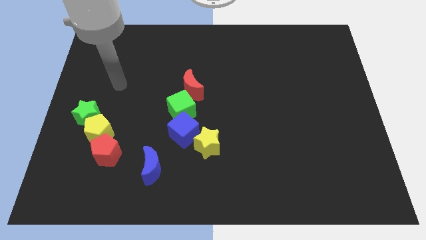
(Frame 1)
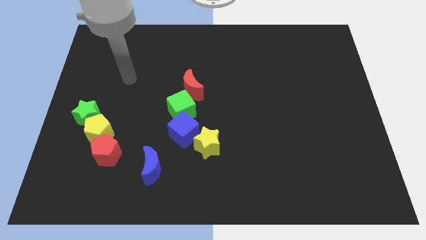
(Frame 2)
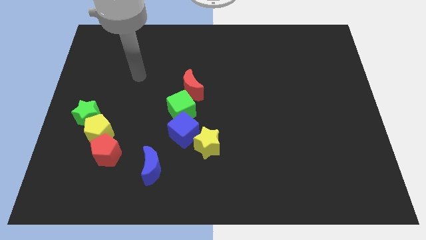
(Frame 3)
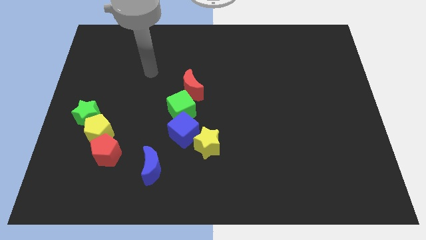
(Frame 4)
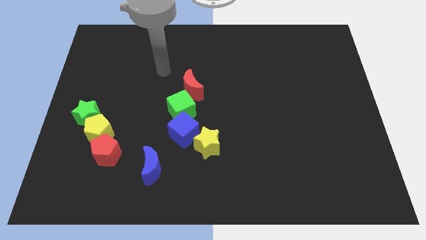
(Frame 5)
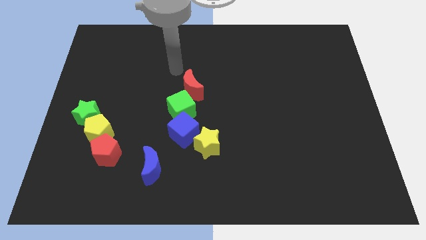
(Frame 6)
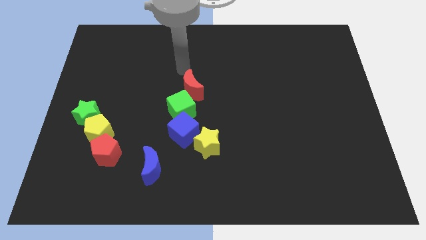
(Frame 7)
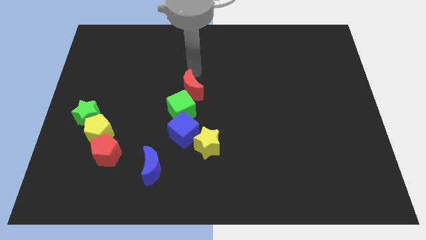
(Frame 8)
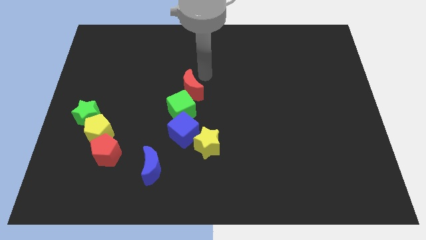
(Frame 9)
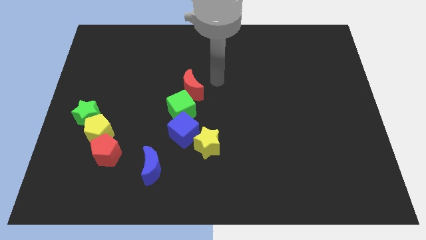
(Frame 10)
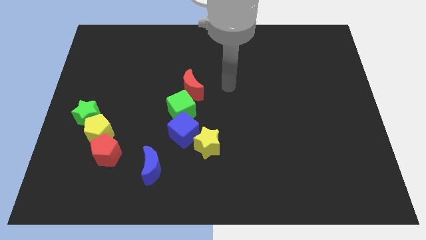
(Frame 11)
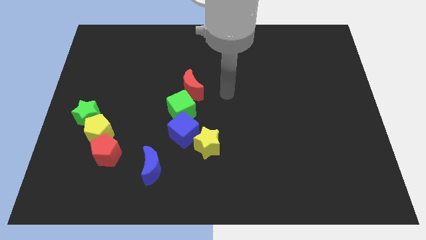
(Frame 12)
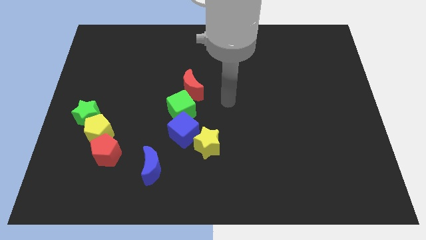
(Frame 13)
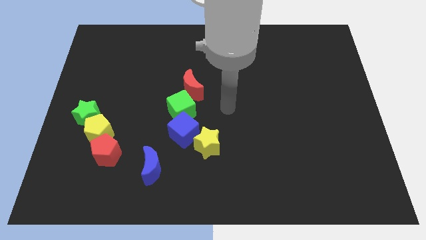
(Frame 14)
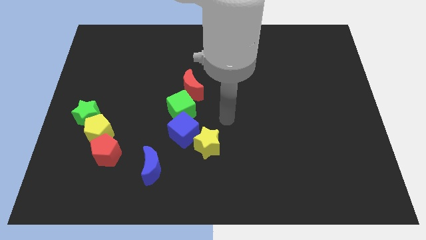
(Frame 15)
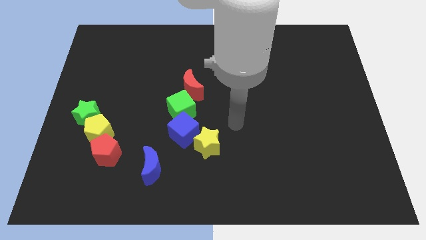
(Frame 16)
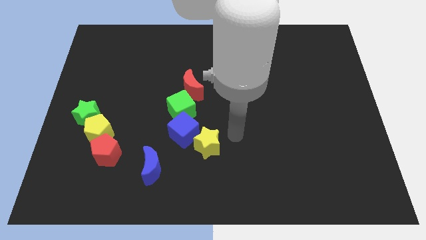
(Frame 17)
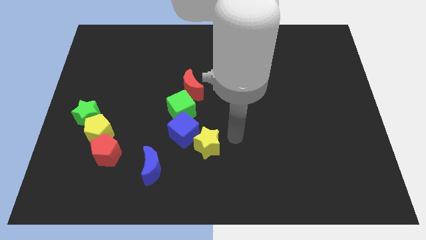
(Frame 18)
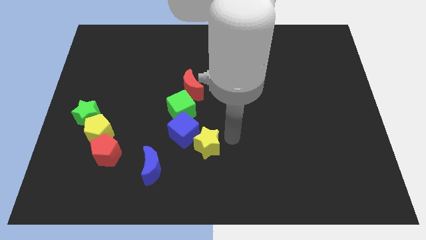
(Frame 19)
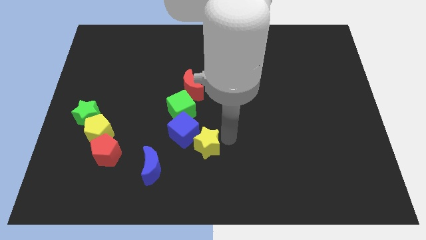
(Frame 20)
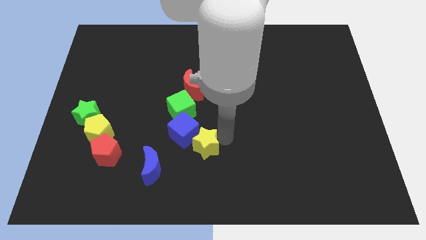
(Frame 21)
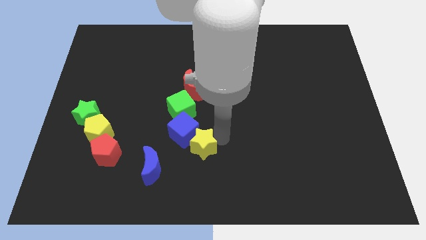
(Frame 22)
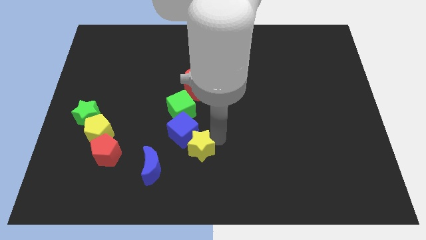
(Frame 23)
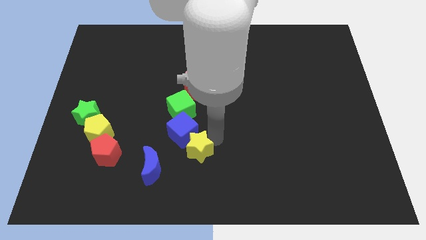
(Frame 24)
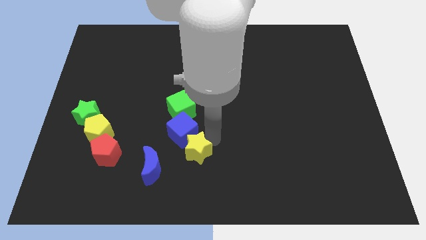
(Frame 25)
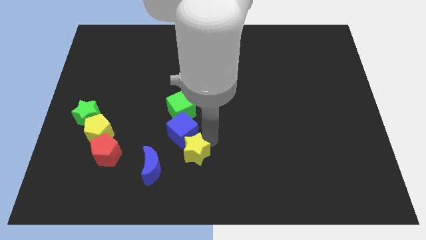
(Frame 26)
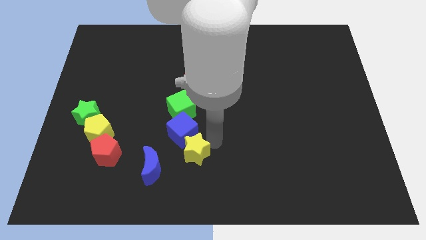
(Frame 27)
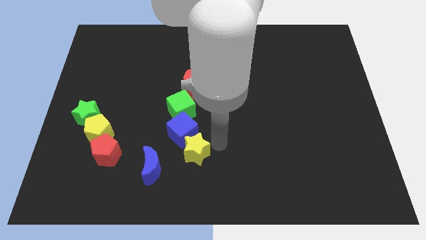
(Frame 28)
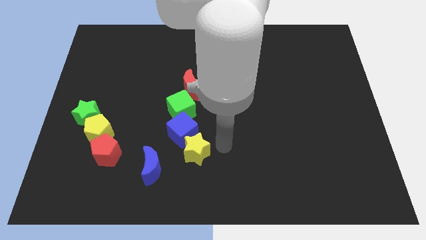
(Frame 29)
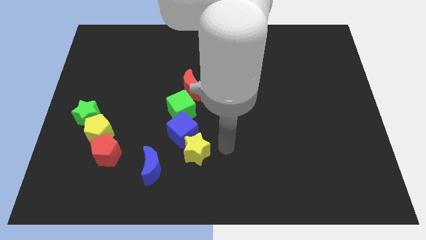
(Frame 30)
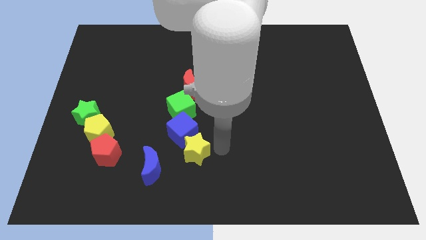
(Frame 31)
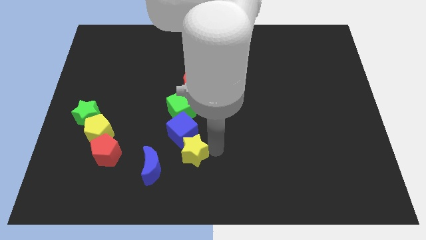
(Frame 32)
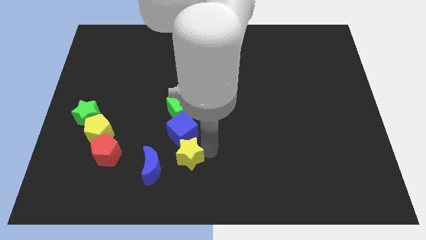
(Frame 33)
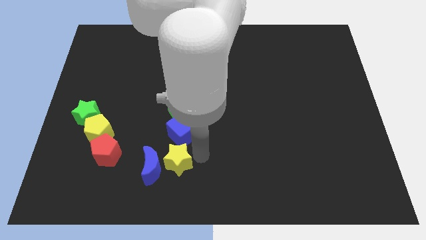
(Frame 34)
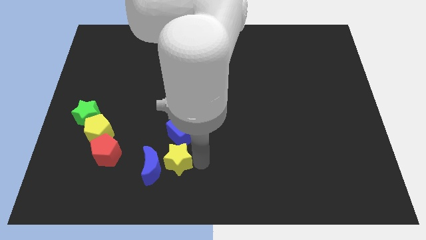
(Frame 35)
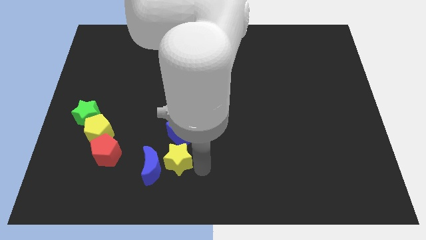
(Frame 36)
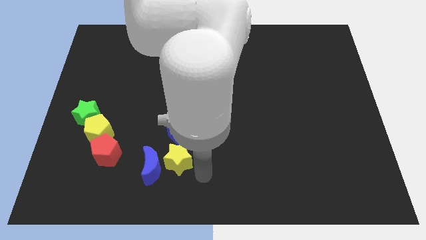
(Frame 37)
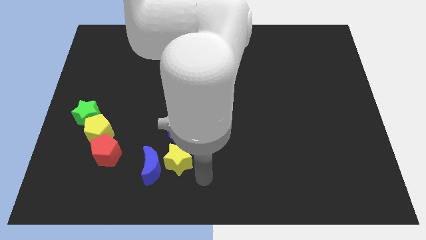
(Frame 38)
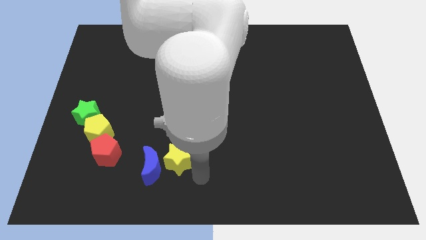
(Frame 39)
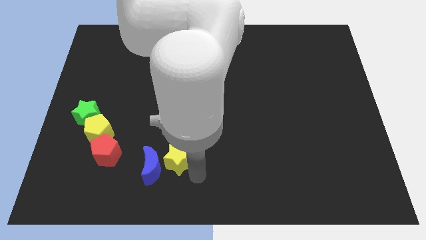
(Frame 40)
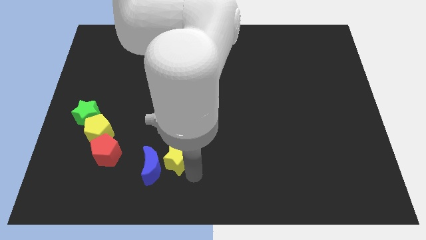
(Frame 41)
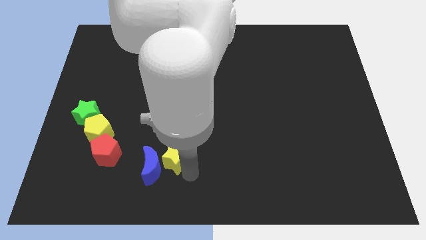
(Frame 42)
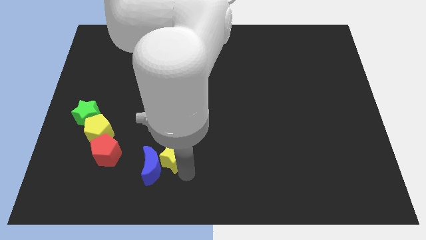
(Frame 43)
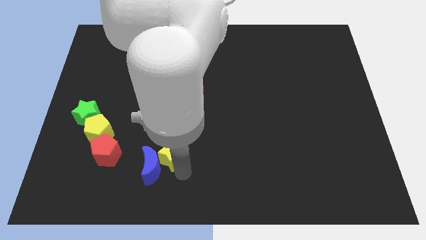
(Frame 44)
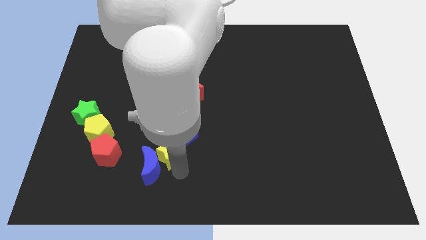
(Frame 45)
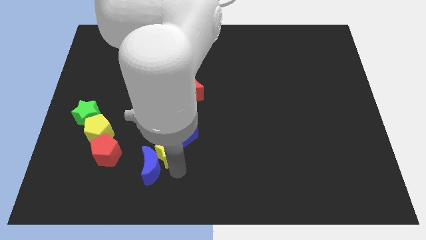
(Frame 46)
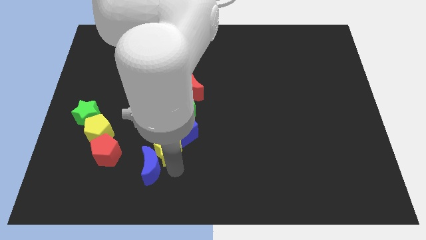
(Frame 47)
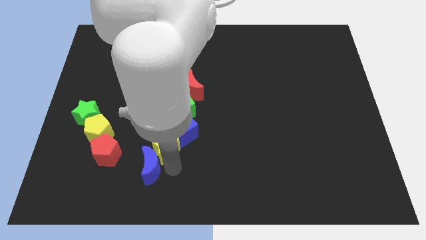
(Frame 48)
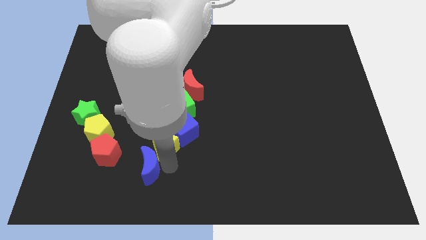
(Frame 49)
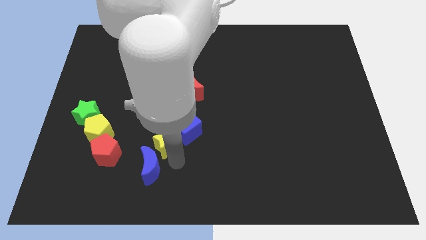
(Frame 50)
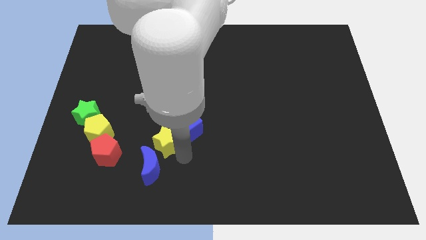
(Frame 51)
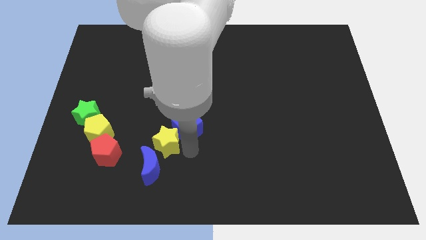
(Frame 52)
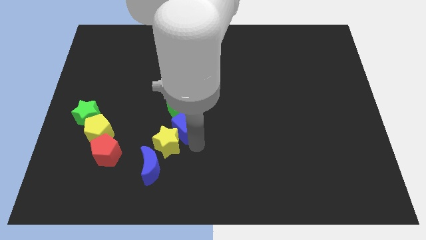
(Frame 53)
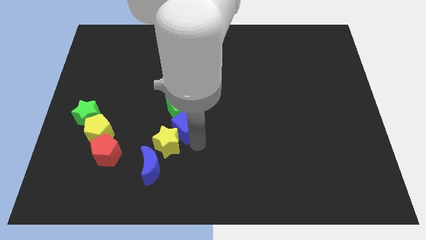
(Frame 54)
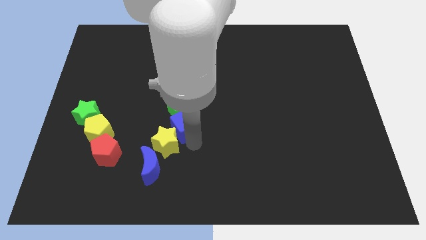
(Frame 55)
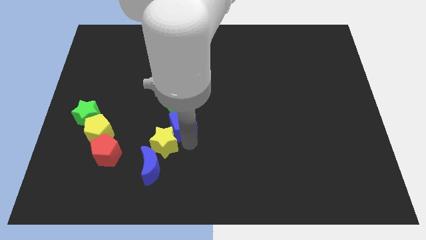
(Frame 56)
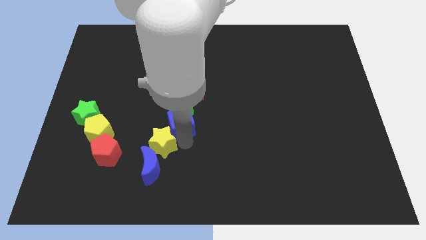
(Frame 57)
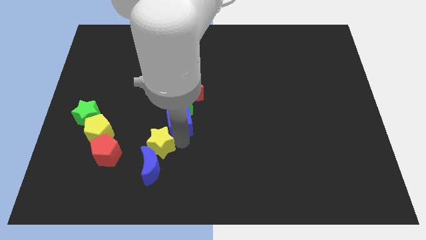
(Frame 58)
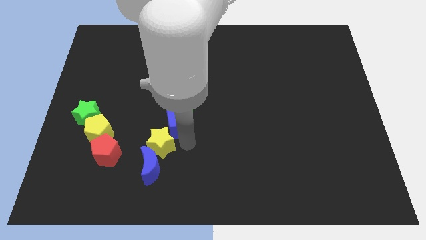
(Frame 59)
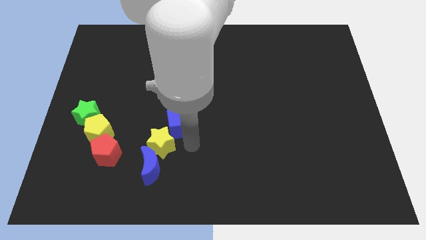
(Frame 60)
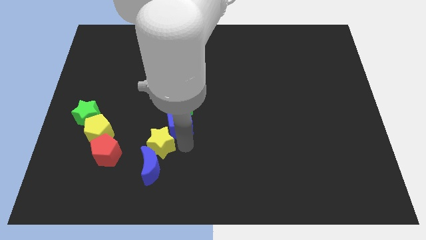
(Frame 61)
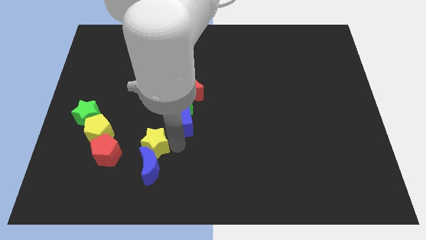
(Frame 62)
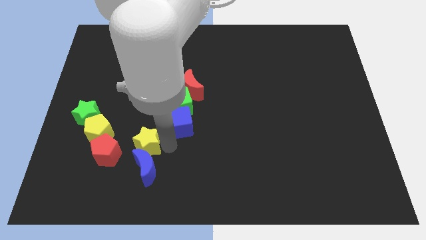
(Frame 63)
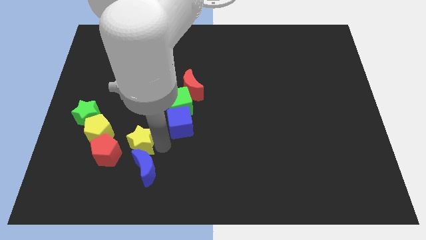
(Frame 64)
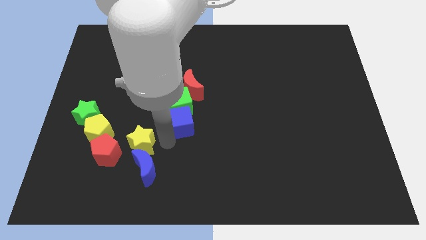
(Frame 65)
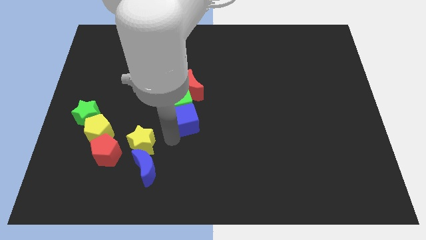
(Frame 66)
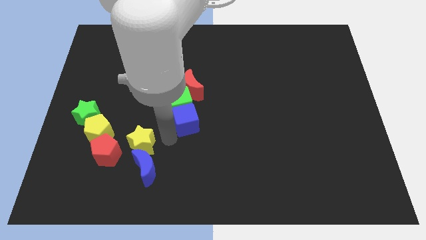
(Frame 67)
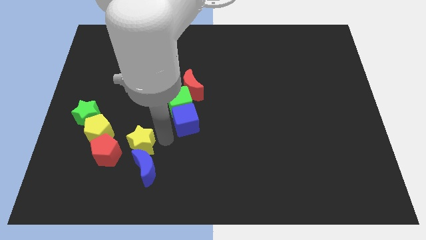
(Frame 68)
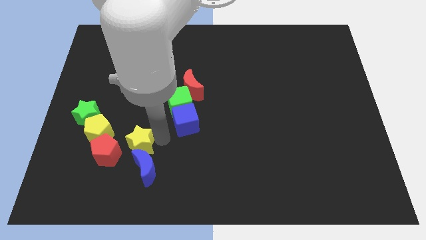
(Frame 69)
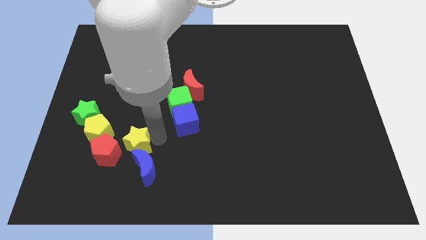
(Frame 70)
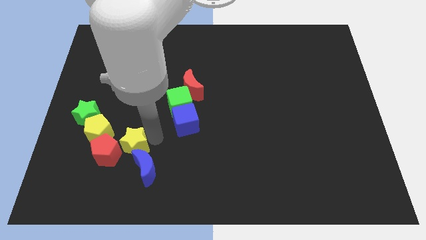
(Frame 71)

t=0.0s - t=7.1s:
put the yellow star to the red pentagon
